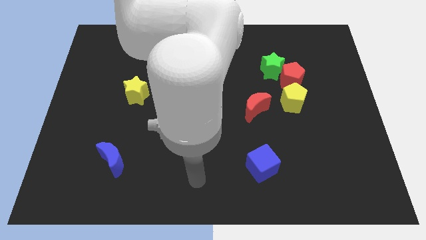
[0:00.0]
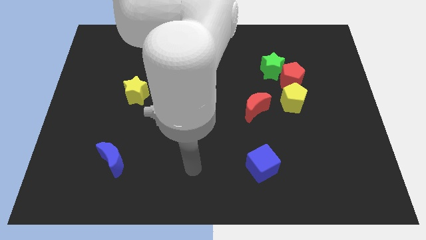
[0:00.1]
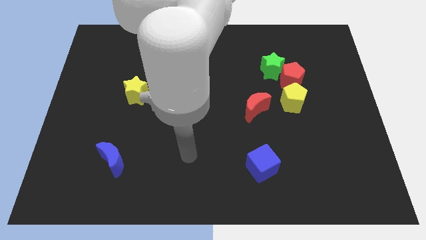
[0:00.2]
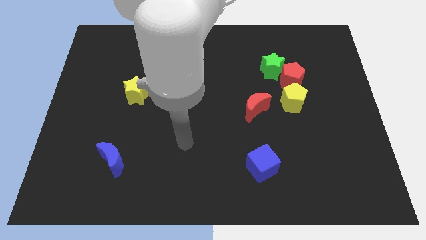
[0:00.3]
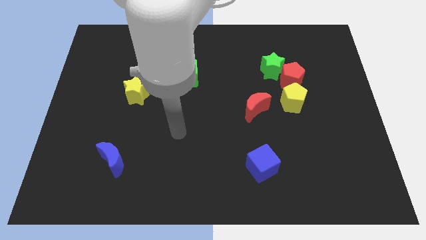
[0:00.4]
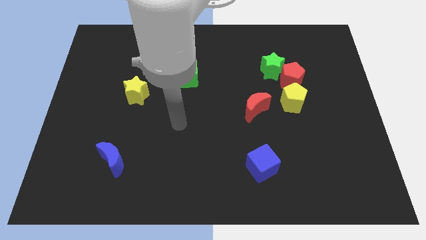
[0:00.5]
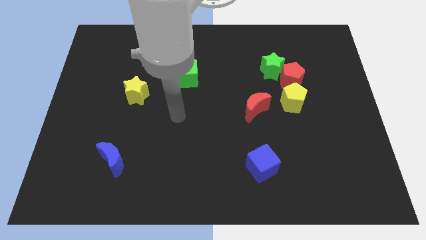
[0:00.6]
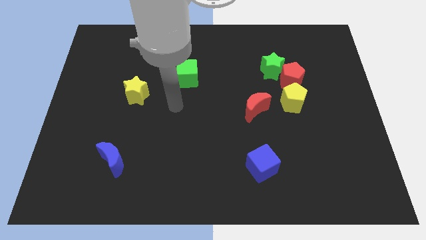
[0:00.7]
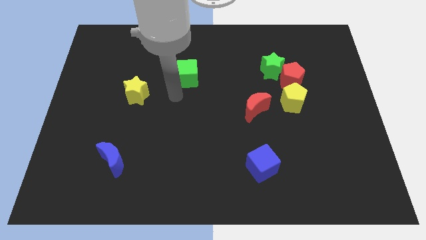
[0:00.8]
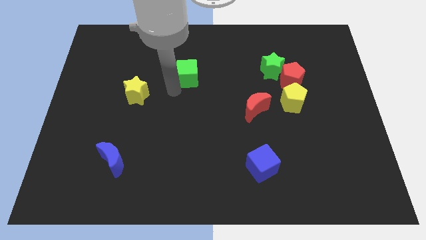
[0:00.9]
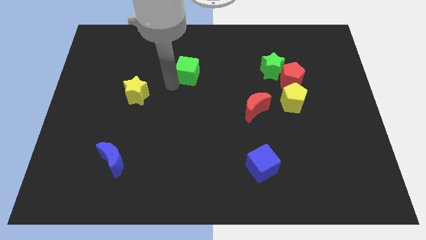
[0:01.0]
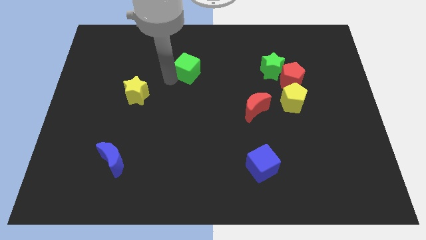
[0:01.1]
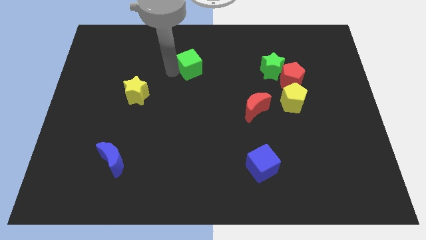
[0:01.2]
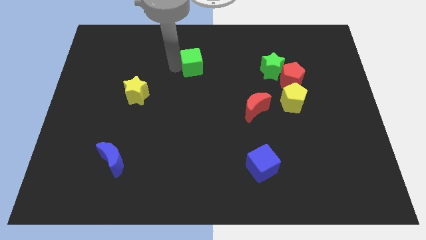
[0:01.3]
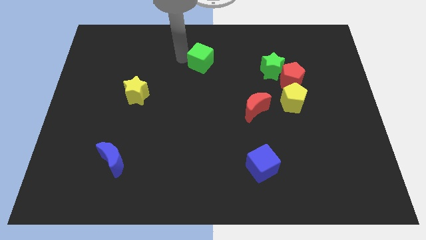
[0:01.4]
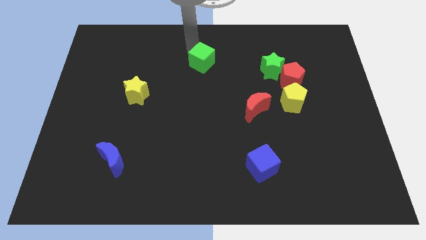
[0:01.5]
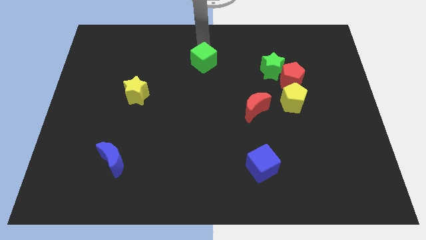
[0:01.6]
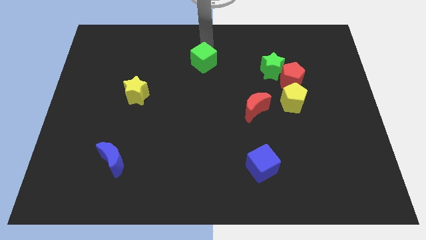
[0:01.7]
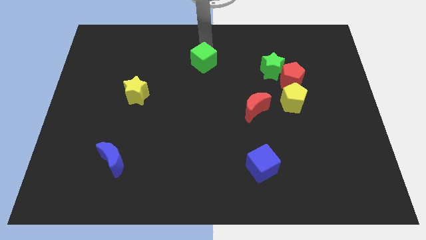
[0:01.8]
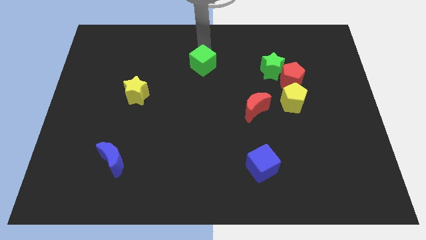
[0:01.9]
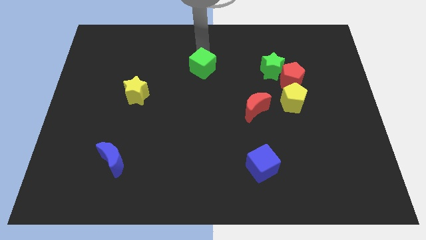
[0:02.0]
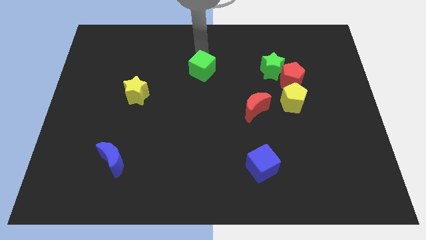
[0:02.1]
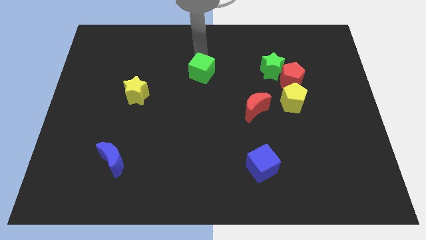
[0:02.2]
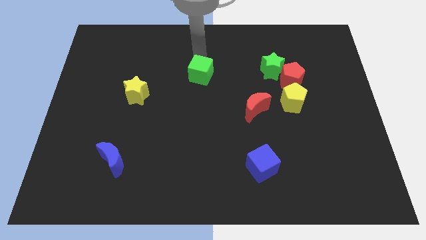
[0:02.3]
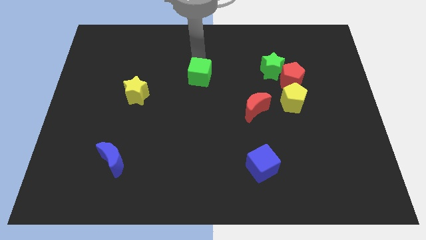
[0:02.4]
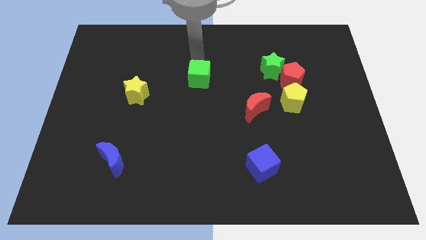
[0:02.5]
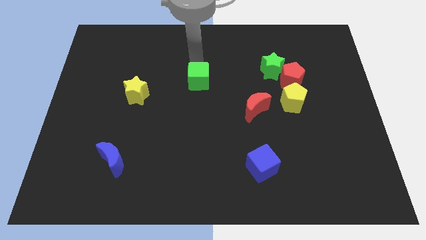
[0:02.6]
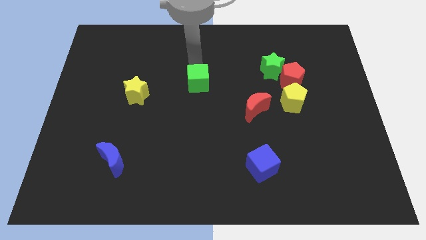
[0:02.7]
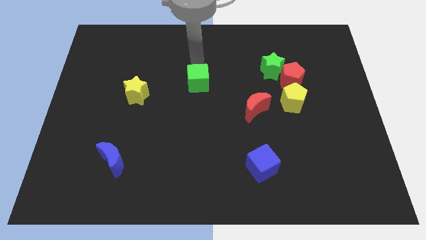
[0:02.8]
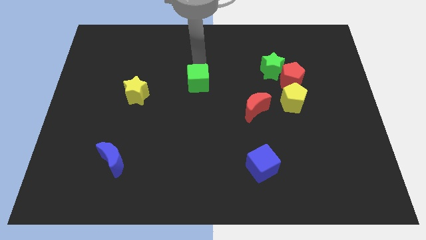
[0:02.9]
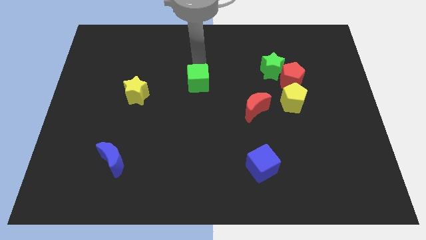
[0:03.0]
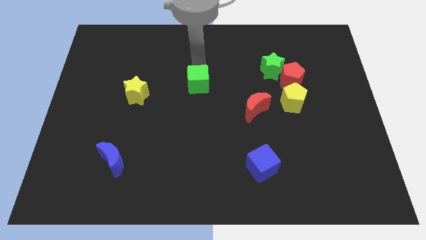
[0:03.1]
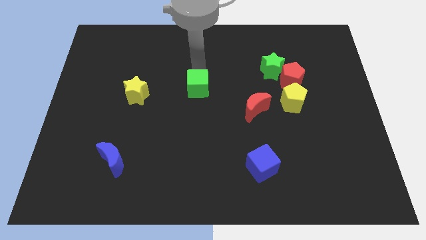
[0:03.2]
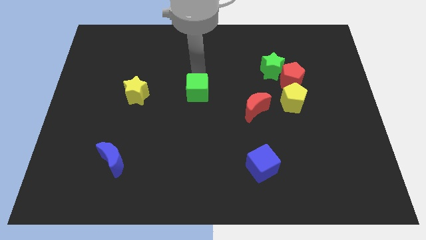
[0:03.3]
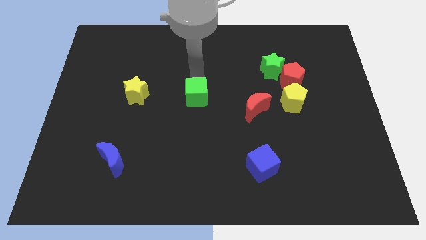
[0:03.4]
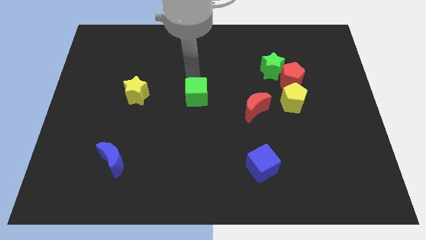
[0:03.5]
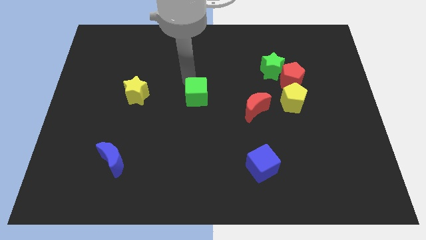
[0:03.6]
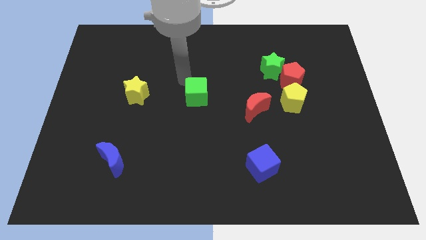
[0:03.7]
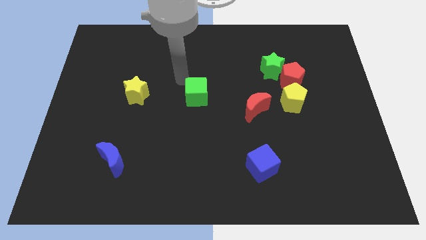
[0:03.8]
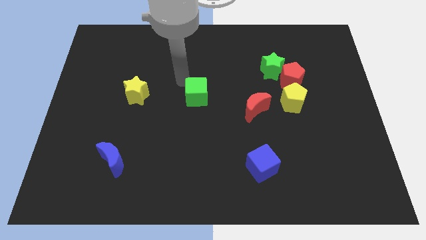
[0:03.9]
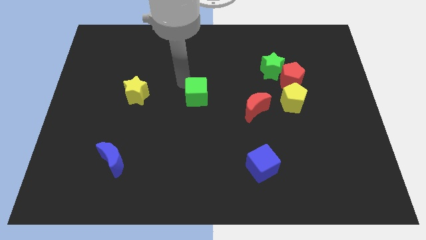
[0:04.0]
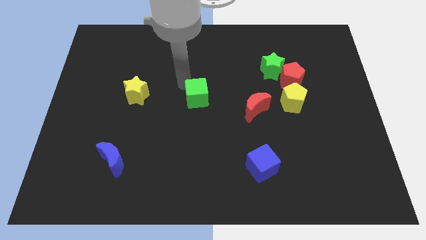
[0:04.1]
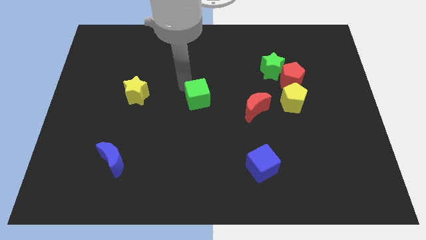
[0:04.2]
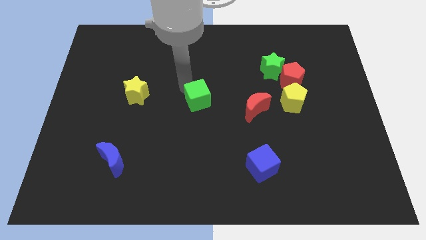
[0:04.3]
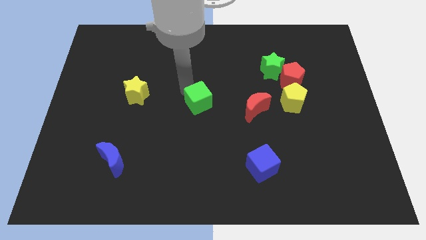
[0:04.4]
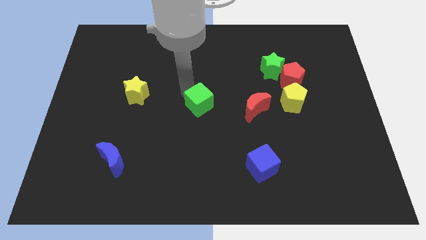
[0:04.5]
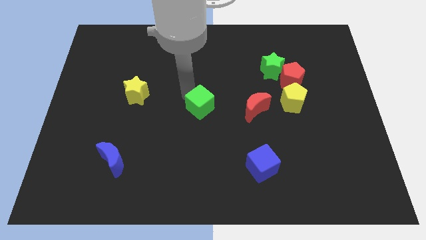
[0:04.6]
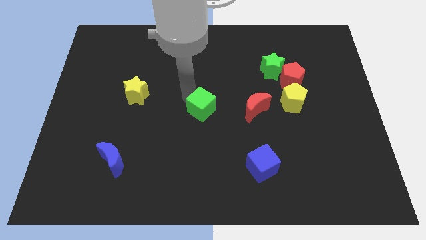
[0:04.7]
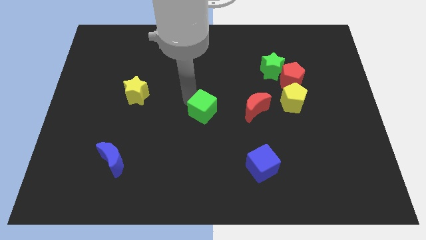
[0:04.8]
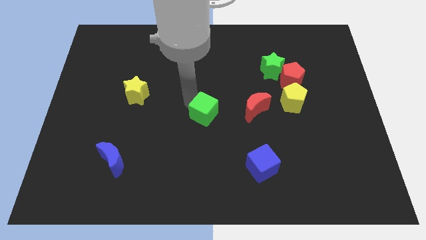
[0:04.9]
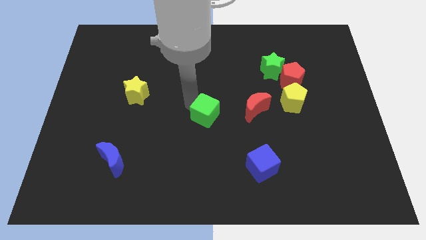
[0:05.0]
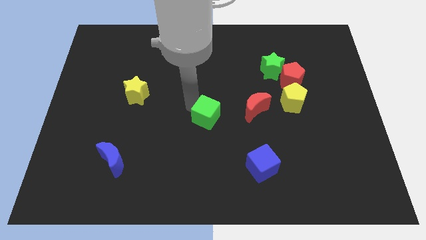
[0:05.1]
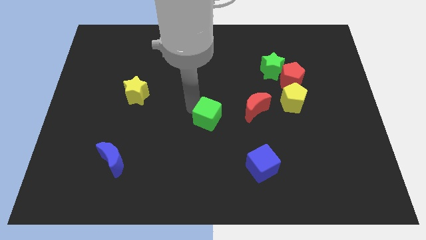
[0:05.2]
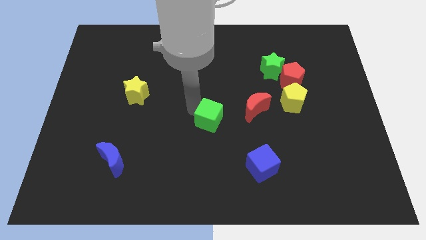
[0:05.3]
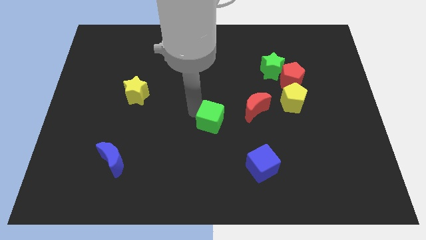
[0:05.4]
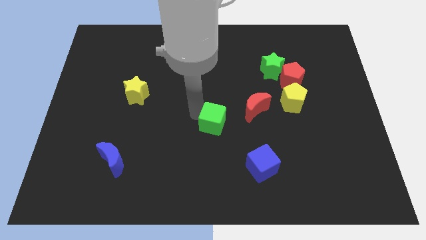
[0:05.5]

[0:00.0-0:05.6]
put the green cube to the bottom left of the red moon

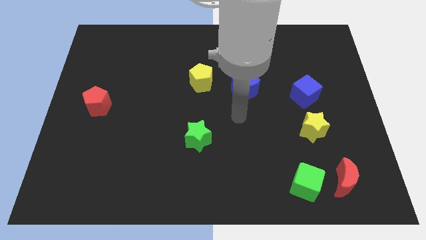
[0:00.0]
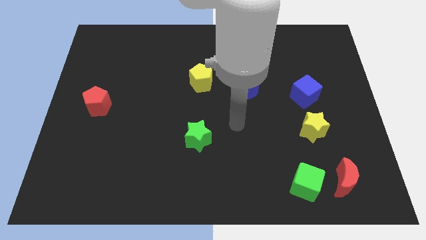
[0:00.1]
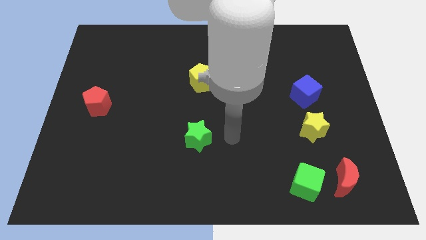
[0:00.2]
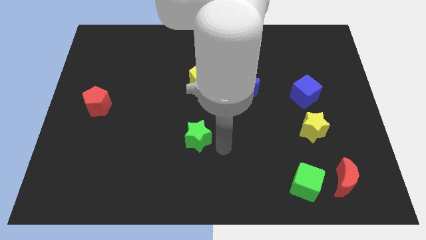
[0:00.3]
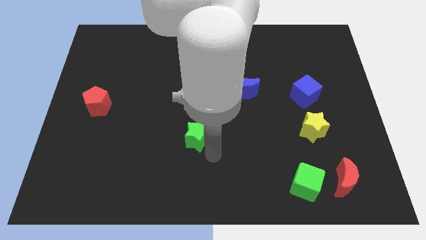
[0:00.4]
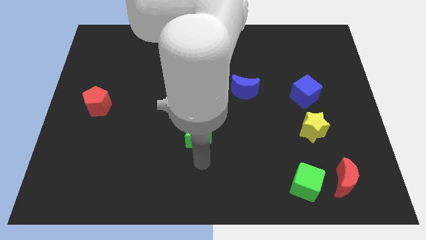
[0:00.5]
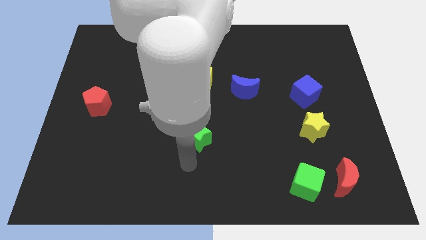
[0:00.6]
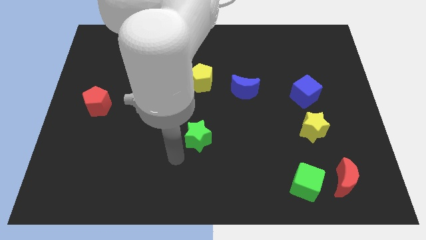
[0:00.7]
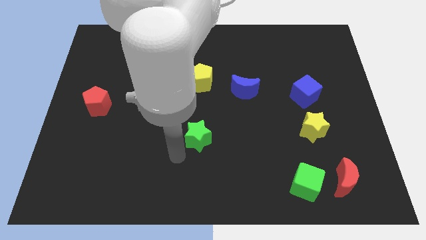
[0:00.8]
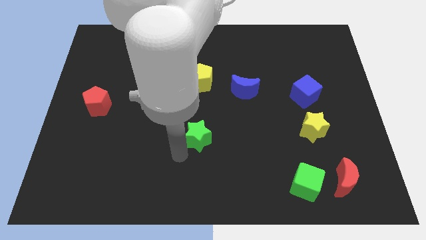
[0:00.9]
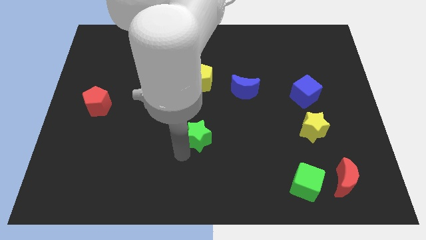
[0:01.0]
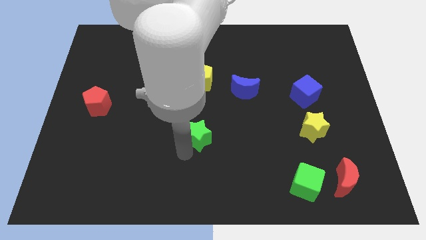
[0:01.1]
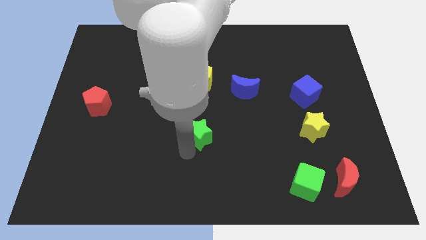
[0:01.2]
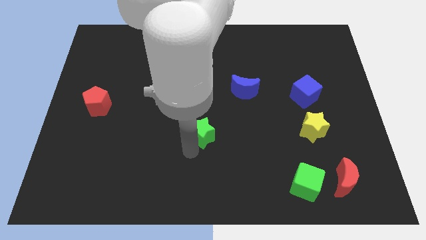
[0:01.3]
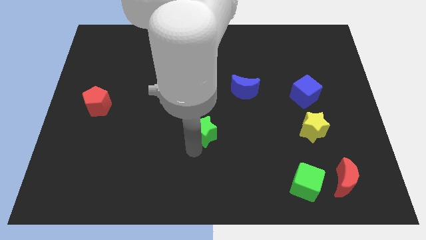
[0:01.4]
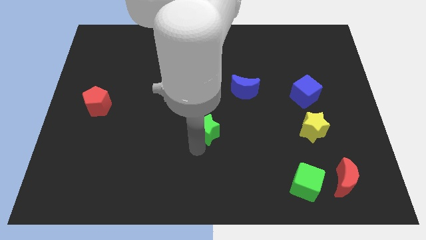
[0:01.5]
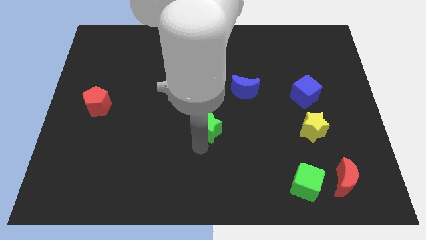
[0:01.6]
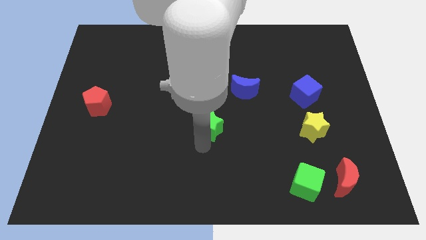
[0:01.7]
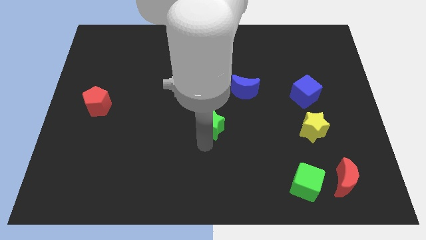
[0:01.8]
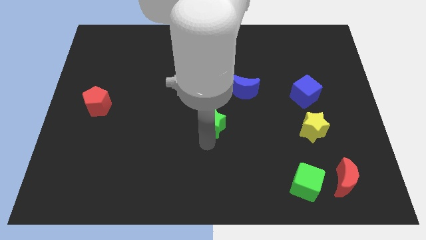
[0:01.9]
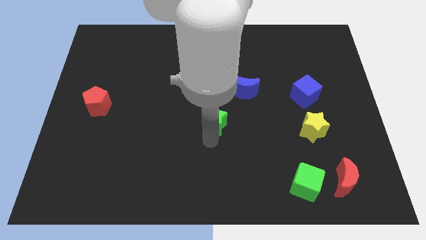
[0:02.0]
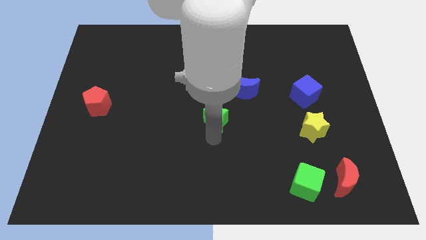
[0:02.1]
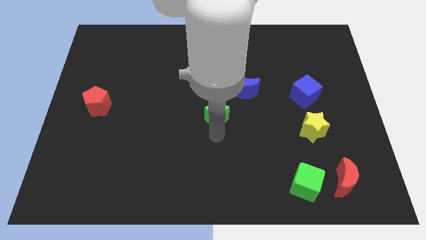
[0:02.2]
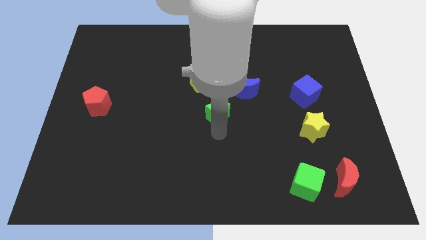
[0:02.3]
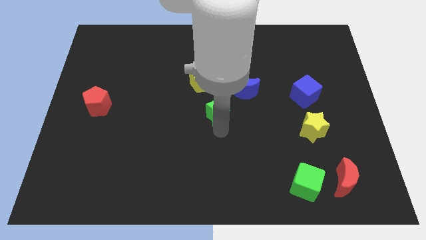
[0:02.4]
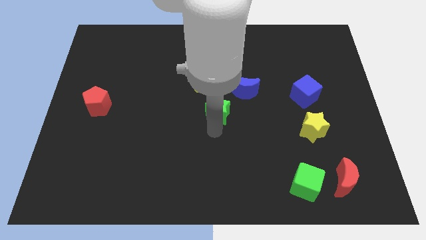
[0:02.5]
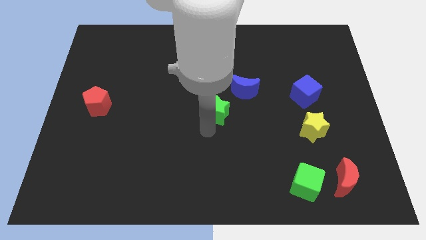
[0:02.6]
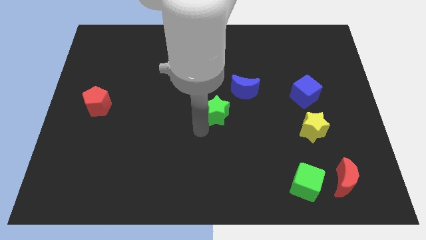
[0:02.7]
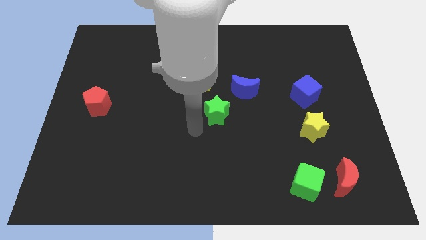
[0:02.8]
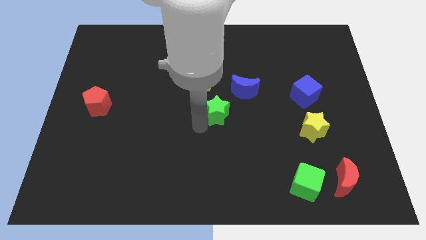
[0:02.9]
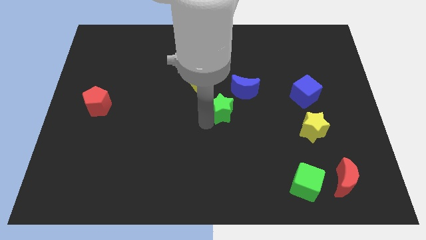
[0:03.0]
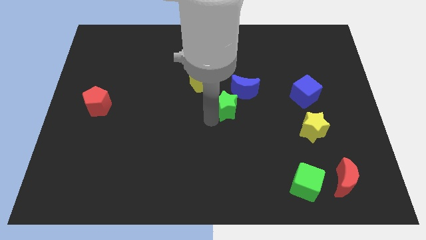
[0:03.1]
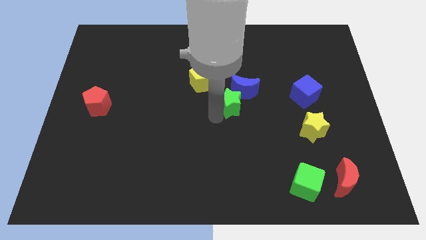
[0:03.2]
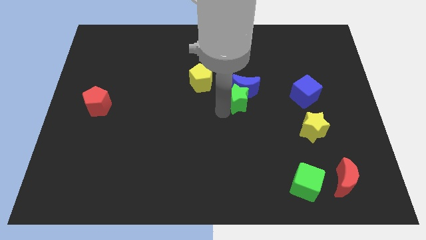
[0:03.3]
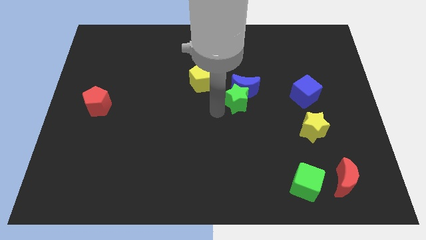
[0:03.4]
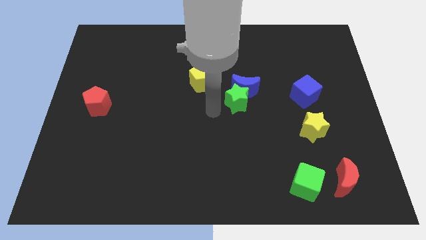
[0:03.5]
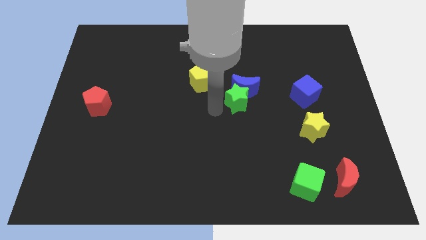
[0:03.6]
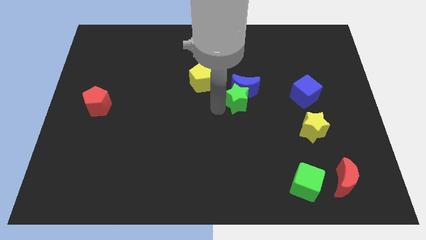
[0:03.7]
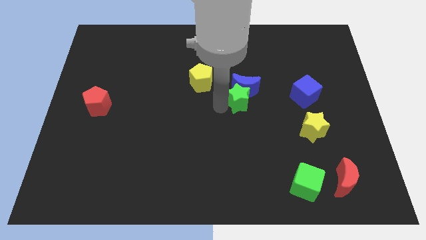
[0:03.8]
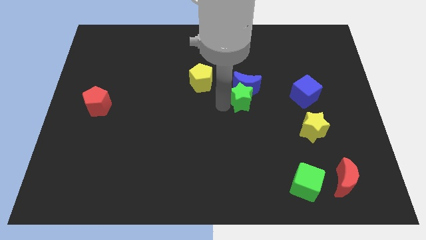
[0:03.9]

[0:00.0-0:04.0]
put the green star to the left of the blue cube
